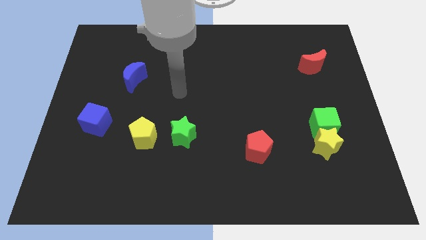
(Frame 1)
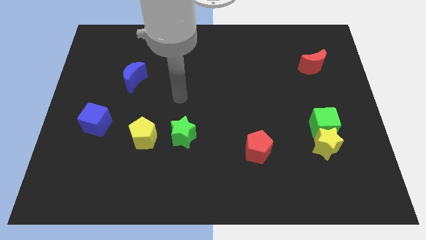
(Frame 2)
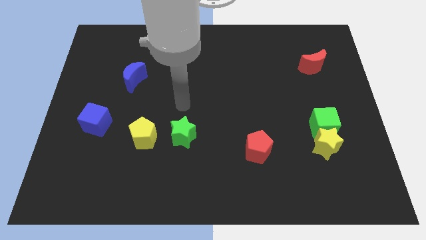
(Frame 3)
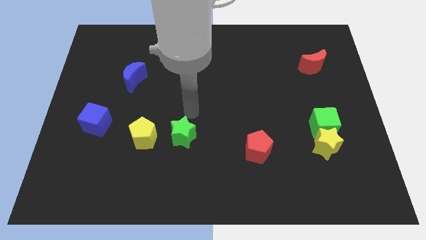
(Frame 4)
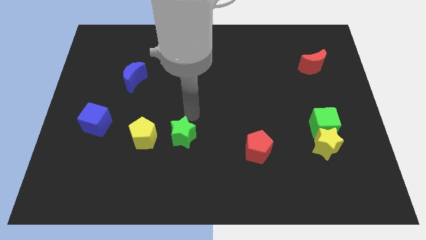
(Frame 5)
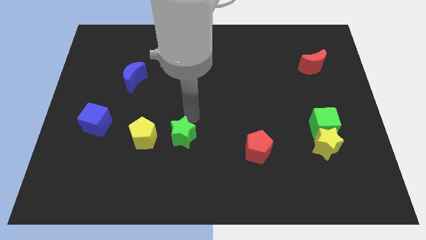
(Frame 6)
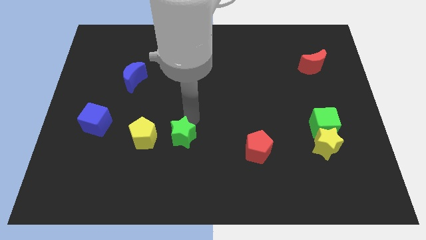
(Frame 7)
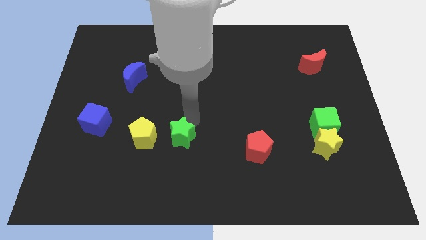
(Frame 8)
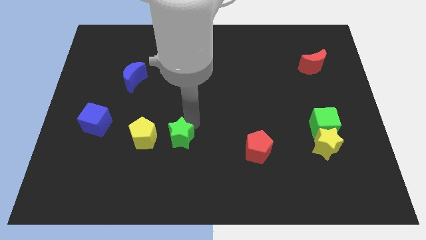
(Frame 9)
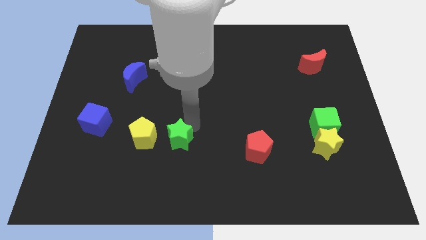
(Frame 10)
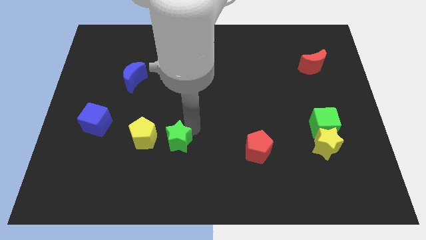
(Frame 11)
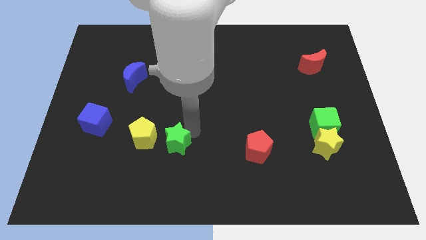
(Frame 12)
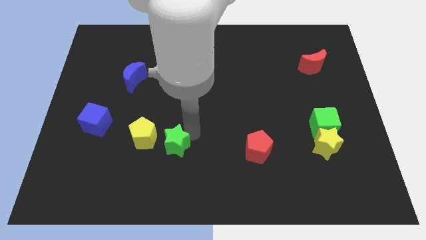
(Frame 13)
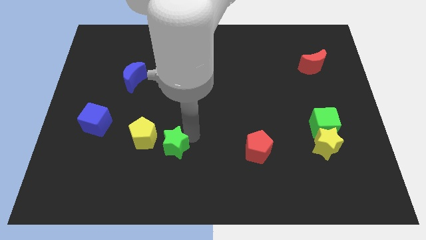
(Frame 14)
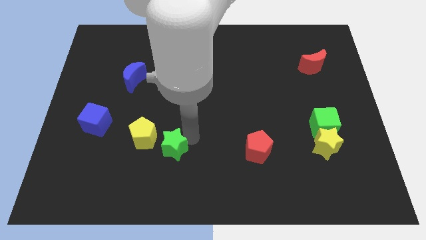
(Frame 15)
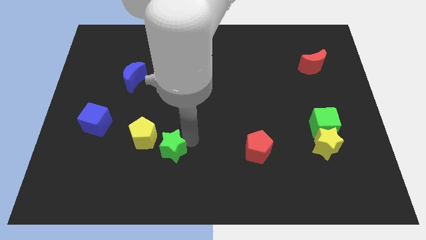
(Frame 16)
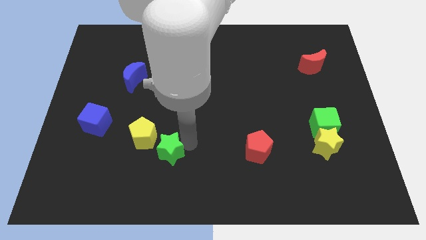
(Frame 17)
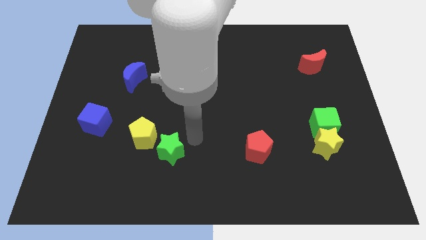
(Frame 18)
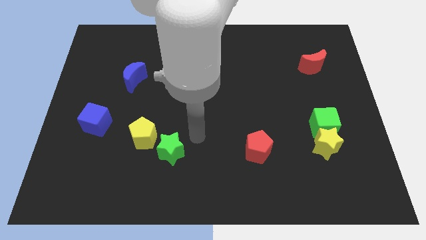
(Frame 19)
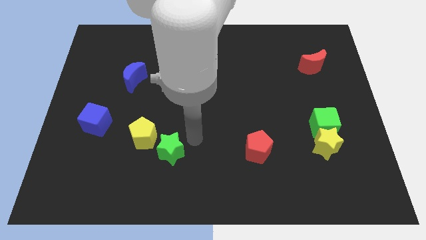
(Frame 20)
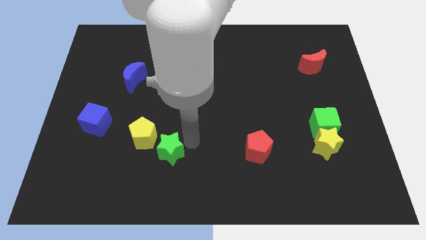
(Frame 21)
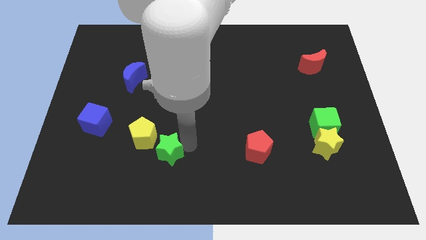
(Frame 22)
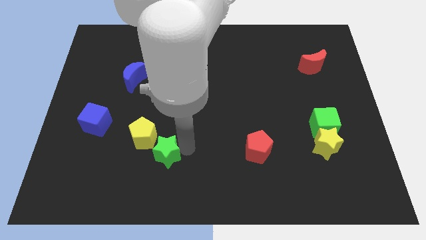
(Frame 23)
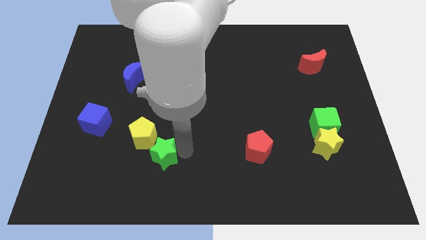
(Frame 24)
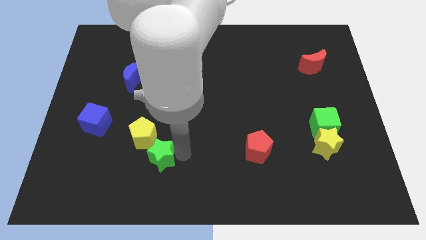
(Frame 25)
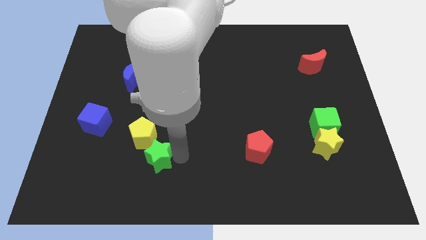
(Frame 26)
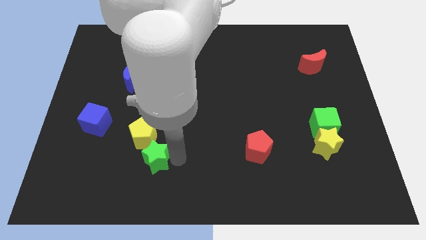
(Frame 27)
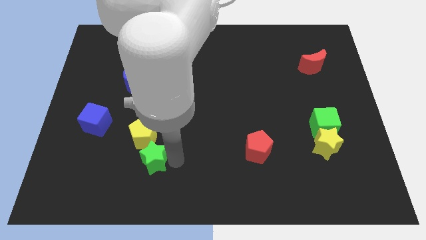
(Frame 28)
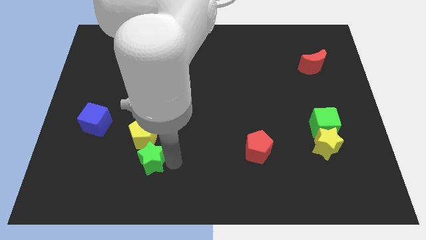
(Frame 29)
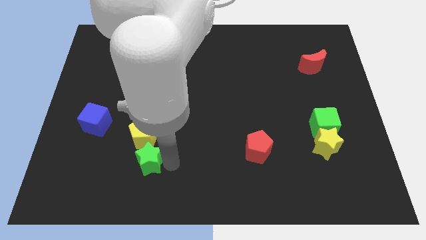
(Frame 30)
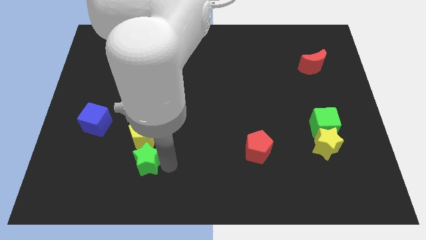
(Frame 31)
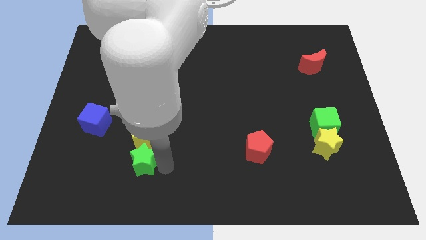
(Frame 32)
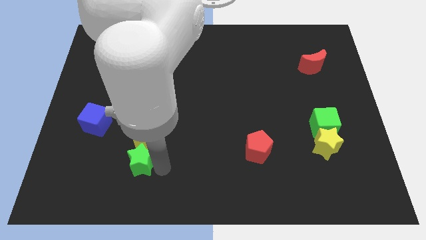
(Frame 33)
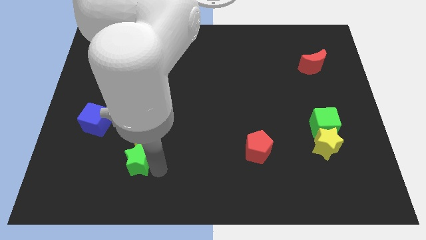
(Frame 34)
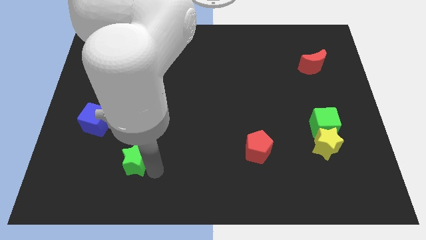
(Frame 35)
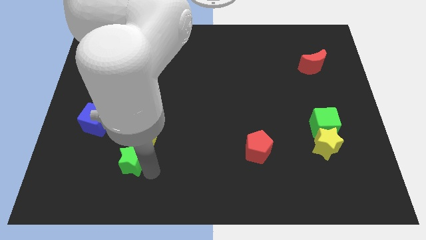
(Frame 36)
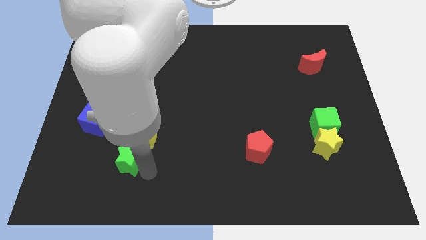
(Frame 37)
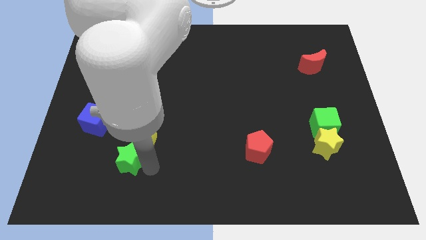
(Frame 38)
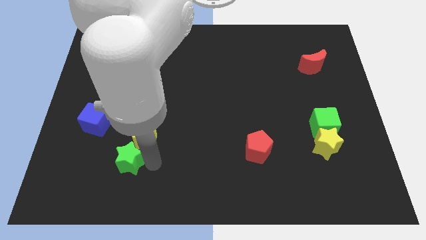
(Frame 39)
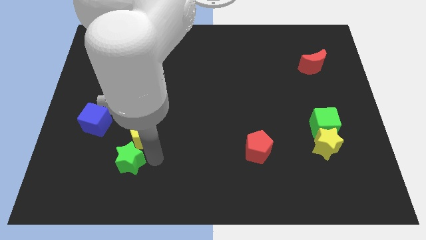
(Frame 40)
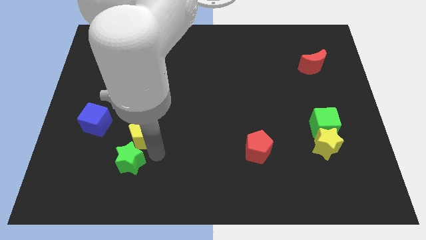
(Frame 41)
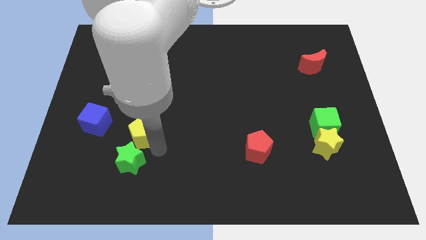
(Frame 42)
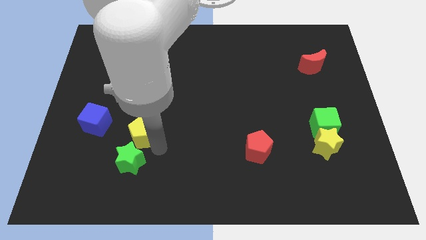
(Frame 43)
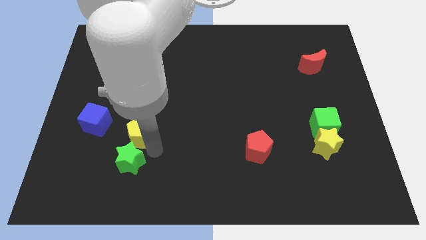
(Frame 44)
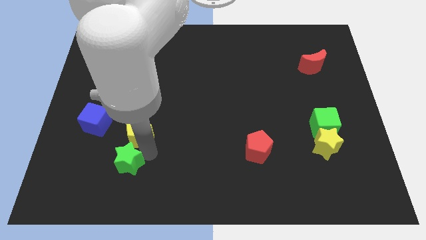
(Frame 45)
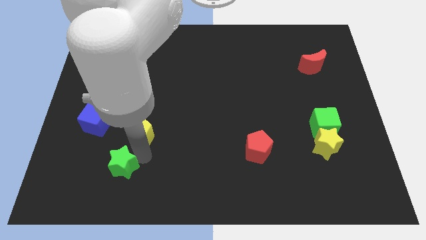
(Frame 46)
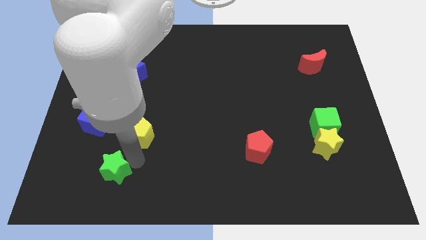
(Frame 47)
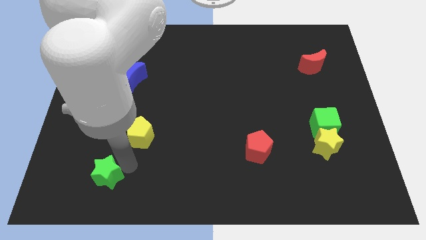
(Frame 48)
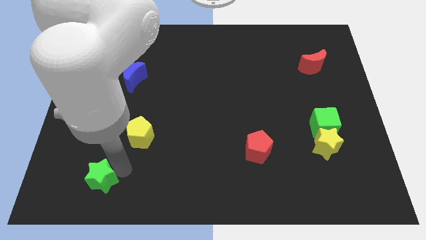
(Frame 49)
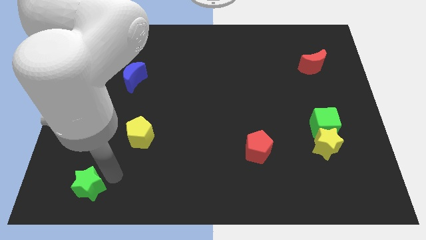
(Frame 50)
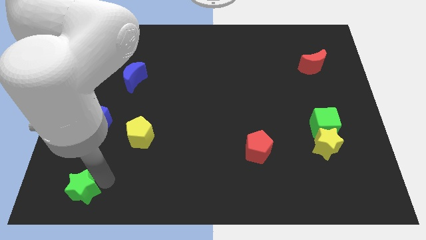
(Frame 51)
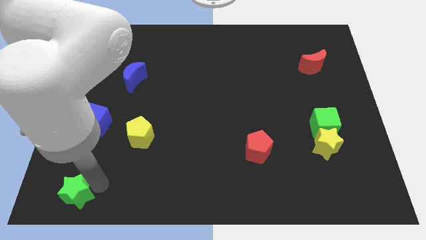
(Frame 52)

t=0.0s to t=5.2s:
slide the green star to the bottom left

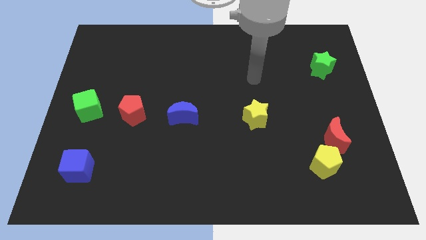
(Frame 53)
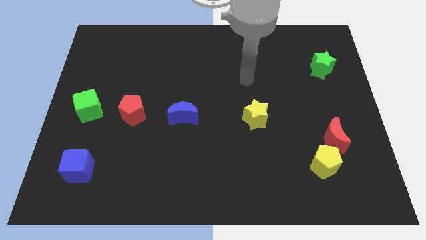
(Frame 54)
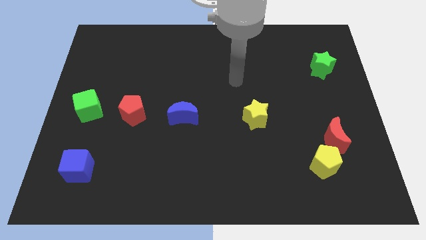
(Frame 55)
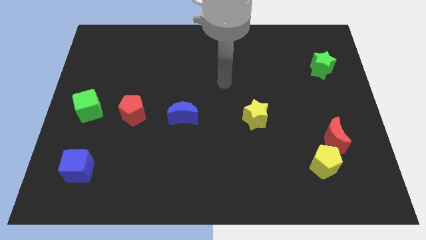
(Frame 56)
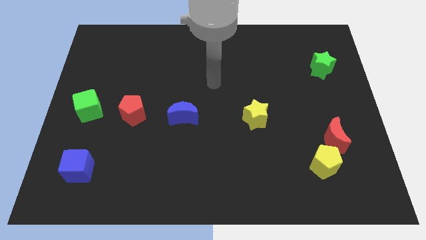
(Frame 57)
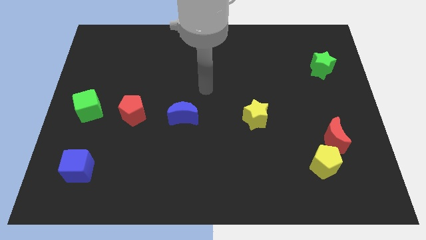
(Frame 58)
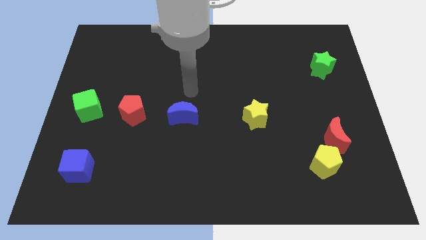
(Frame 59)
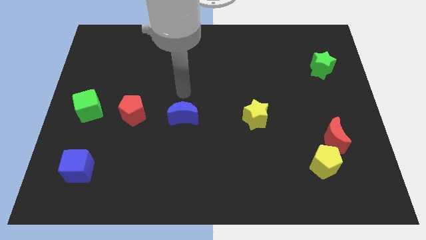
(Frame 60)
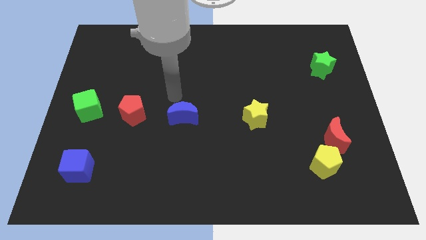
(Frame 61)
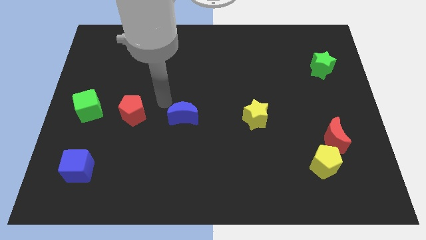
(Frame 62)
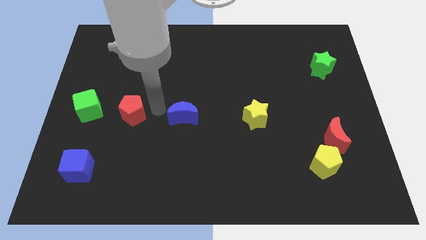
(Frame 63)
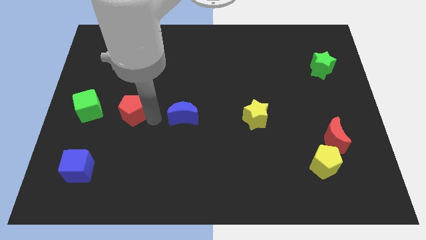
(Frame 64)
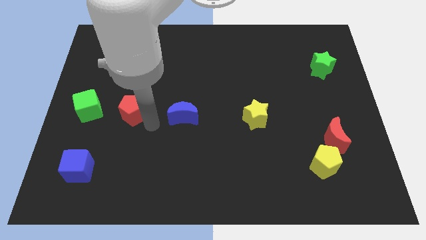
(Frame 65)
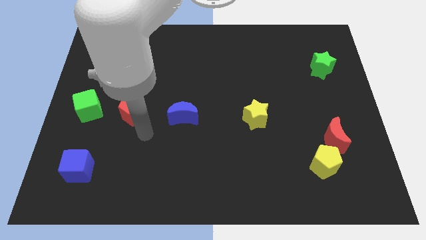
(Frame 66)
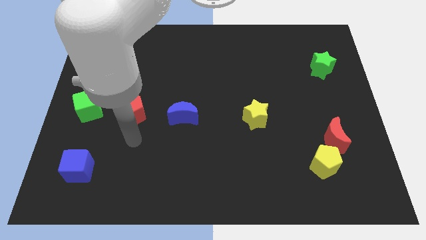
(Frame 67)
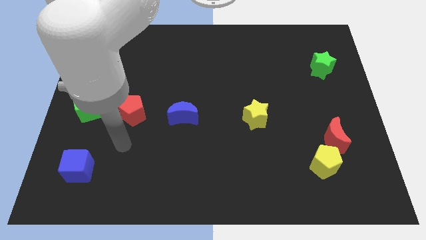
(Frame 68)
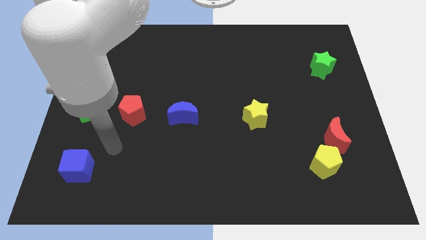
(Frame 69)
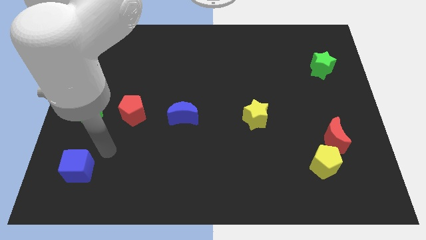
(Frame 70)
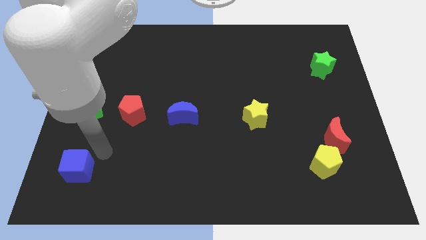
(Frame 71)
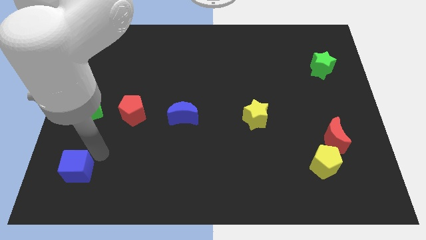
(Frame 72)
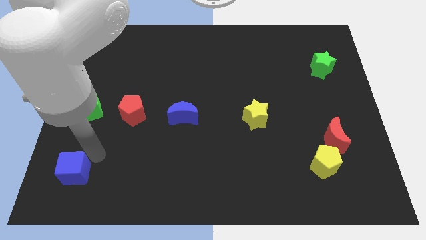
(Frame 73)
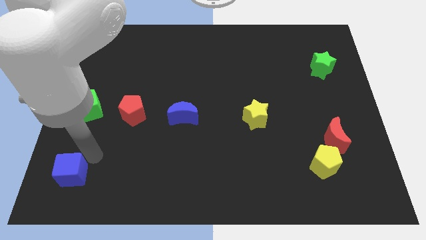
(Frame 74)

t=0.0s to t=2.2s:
move the blue cube to the lower left corner

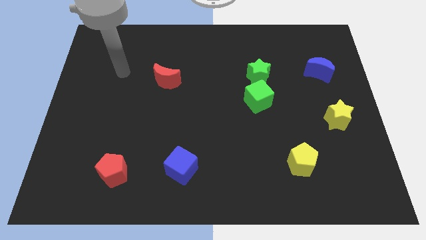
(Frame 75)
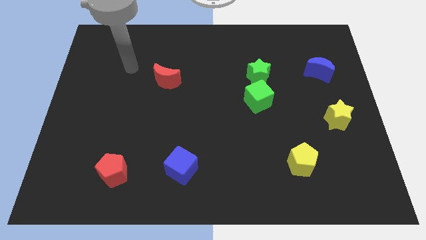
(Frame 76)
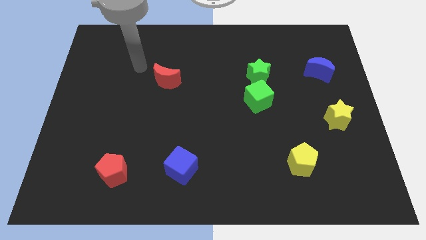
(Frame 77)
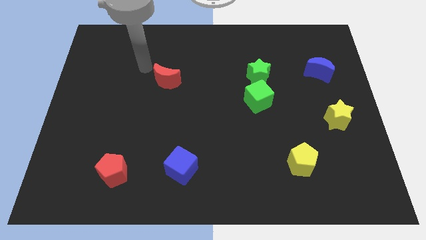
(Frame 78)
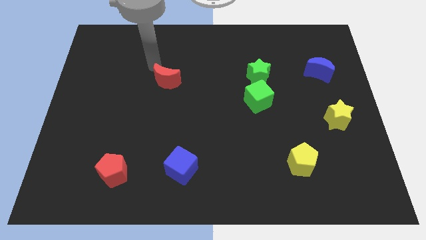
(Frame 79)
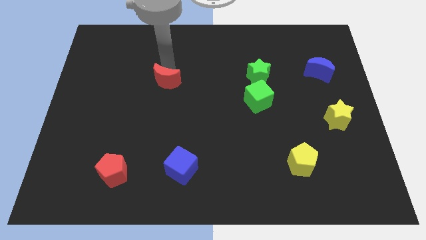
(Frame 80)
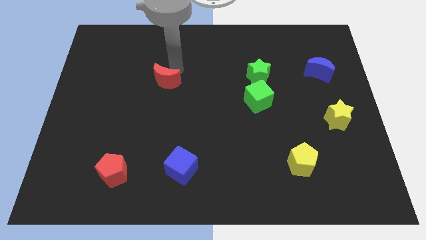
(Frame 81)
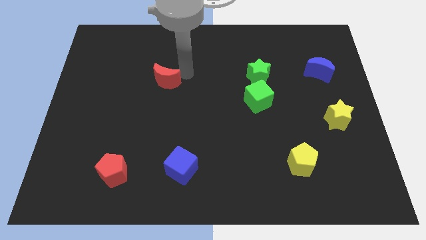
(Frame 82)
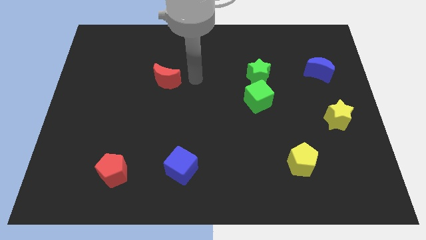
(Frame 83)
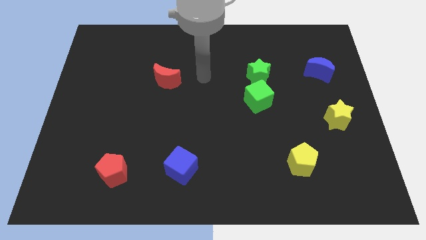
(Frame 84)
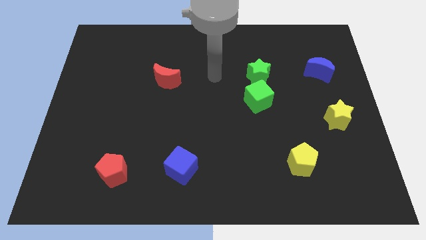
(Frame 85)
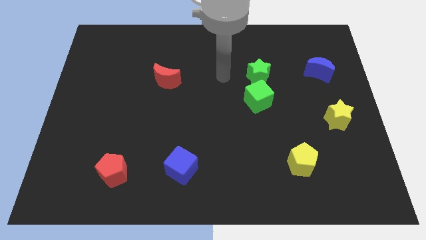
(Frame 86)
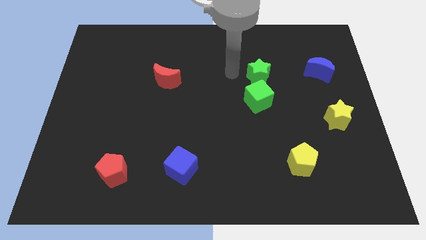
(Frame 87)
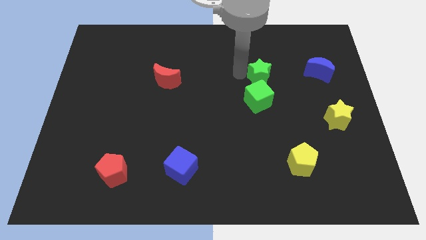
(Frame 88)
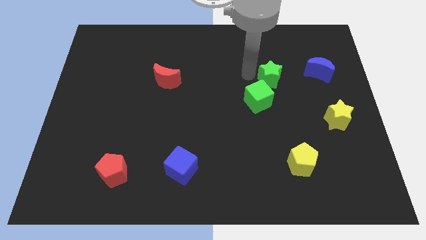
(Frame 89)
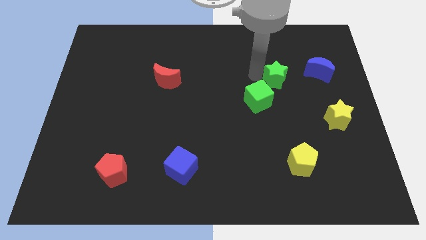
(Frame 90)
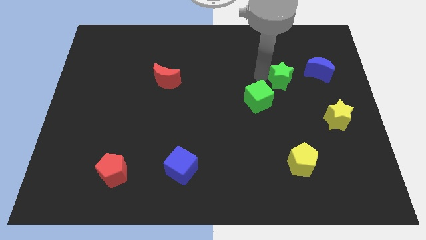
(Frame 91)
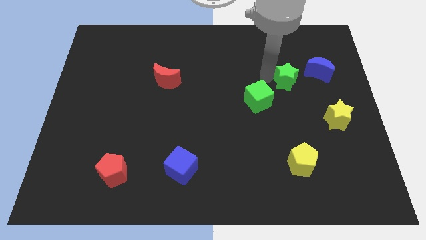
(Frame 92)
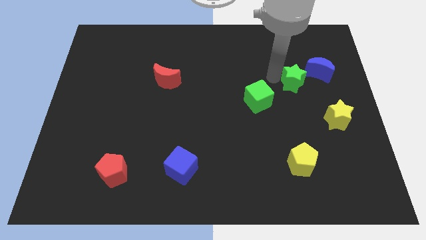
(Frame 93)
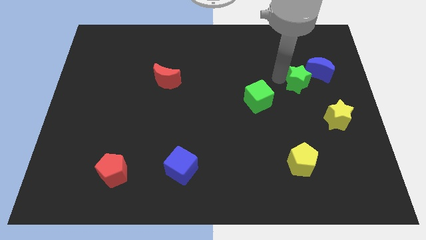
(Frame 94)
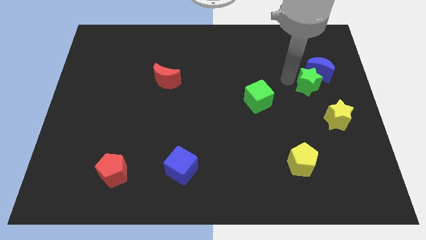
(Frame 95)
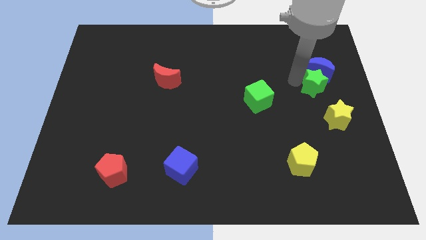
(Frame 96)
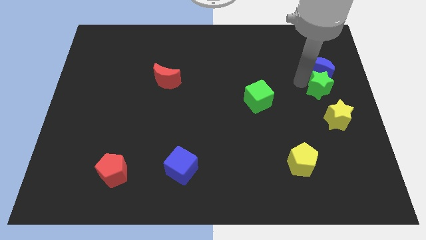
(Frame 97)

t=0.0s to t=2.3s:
move the green star to the right side
